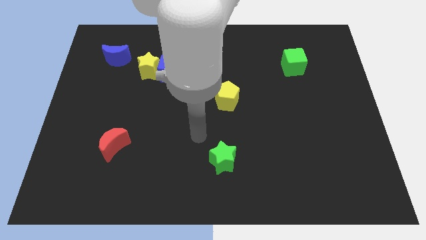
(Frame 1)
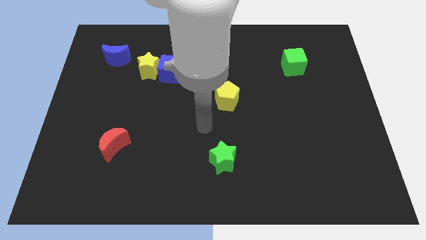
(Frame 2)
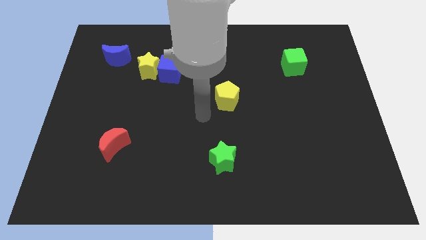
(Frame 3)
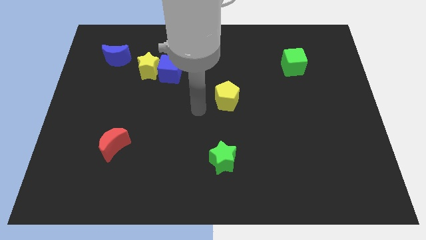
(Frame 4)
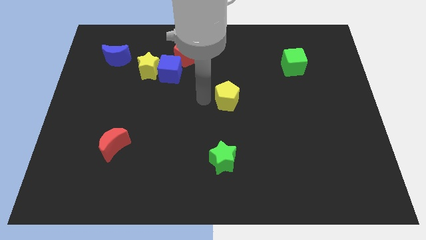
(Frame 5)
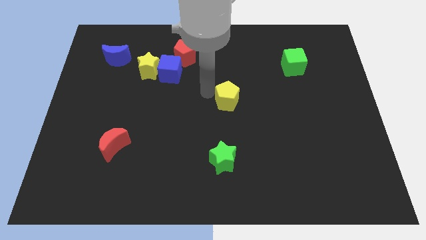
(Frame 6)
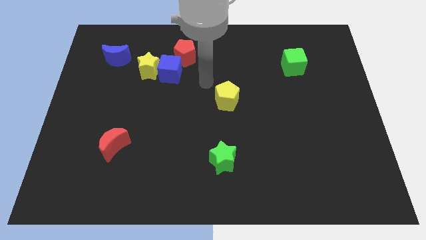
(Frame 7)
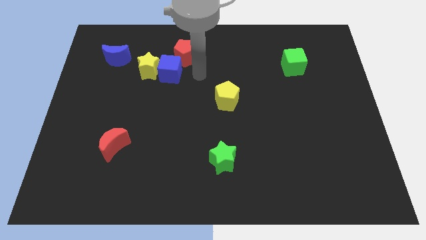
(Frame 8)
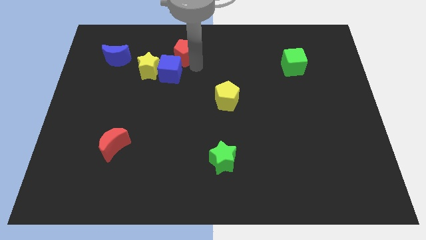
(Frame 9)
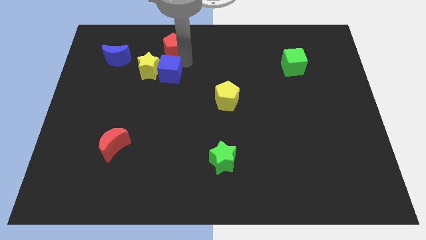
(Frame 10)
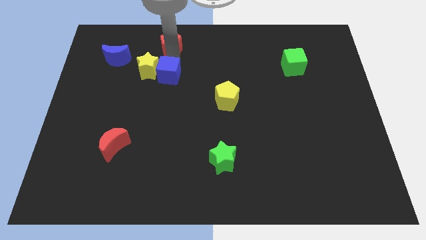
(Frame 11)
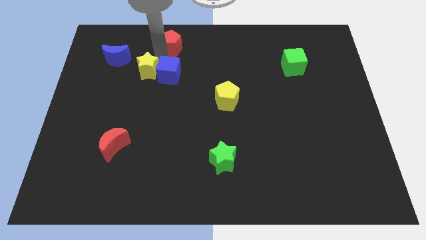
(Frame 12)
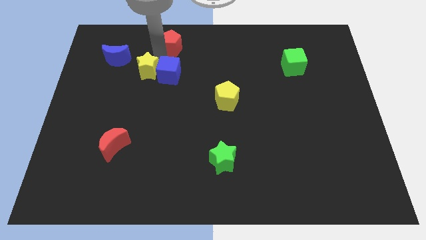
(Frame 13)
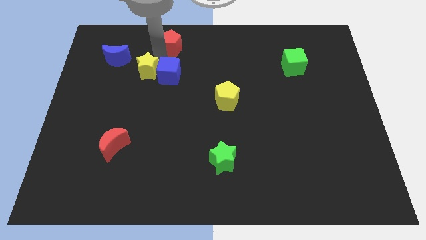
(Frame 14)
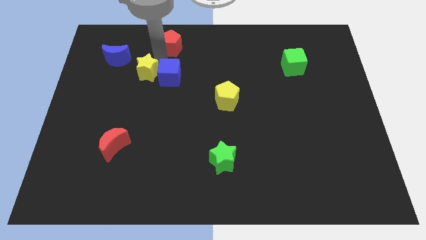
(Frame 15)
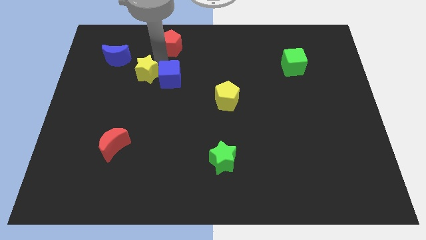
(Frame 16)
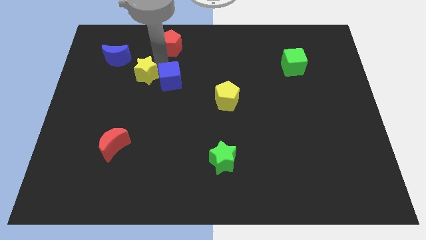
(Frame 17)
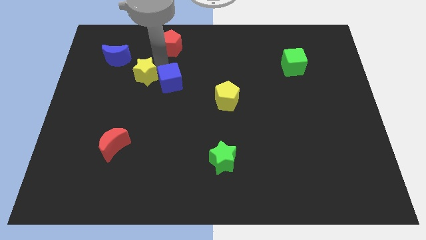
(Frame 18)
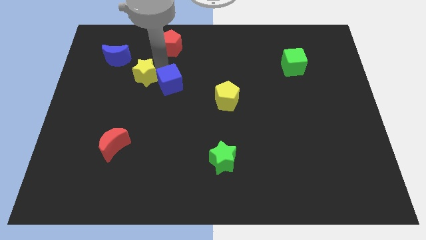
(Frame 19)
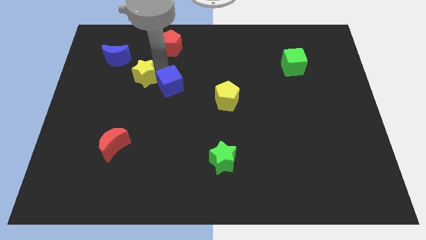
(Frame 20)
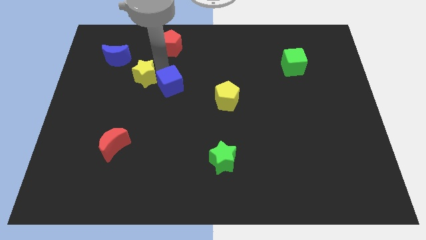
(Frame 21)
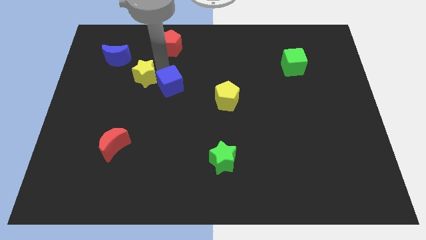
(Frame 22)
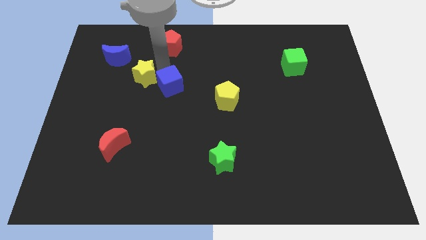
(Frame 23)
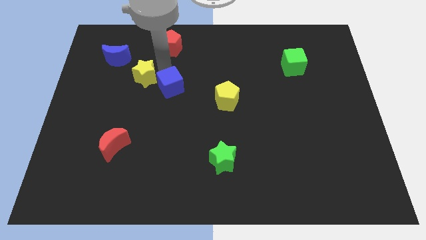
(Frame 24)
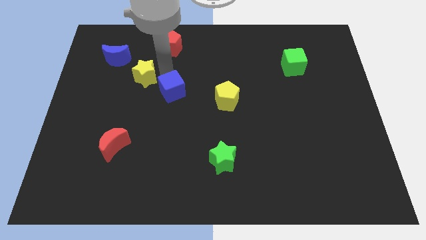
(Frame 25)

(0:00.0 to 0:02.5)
pull the blue cube apart from the yellow star and red pentagon

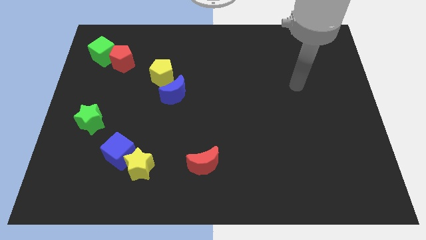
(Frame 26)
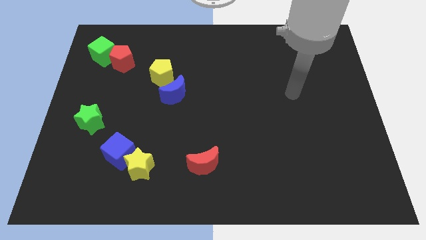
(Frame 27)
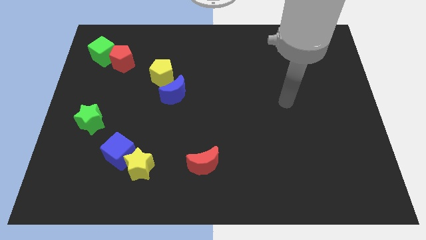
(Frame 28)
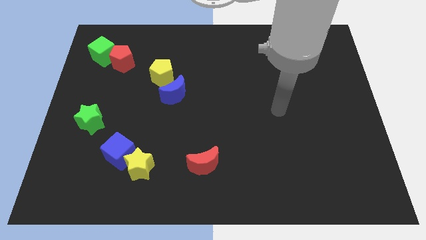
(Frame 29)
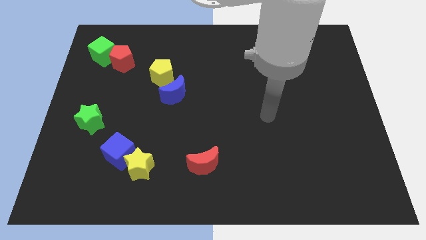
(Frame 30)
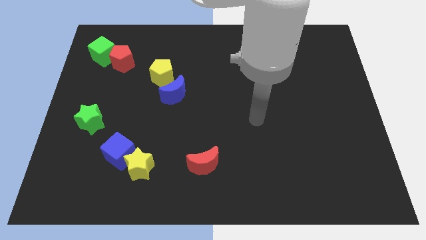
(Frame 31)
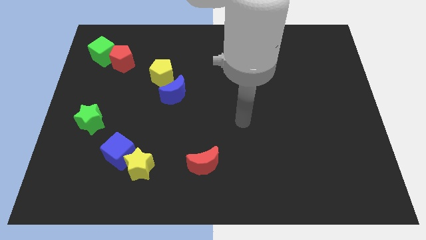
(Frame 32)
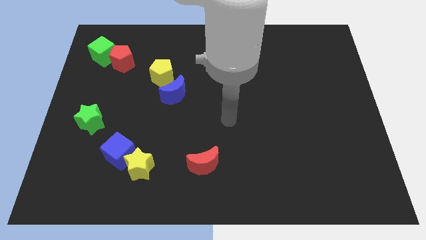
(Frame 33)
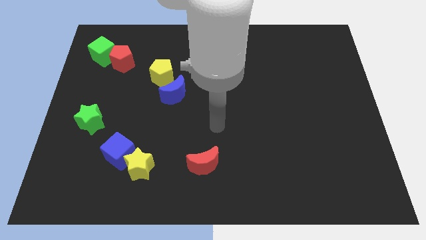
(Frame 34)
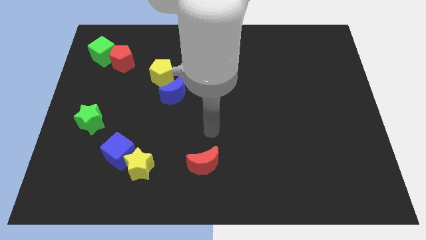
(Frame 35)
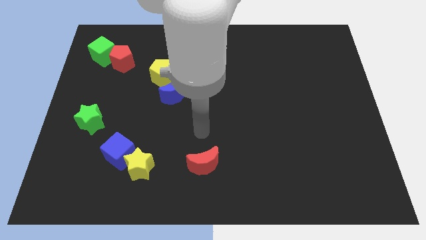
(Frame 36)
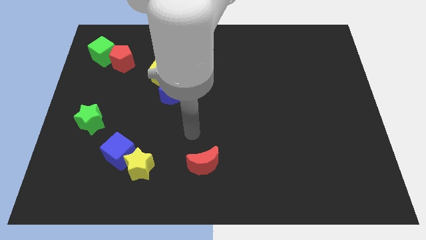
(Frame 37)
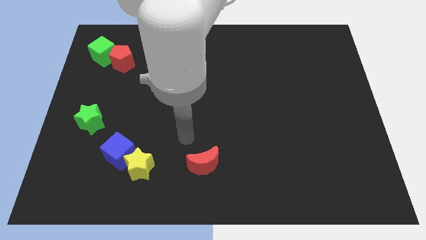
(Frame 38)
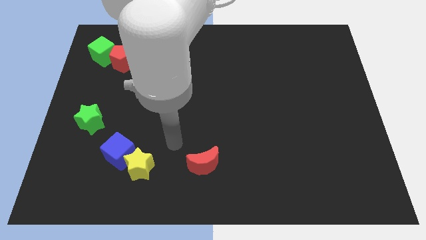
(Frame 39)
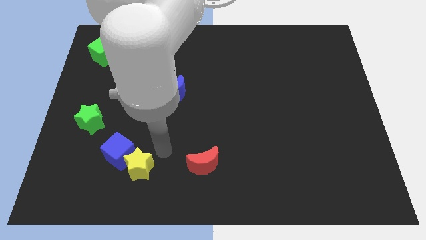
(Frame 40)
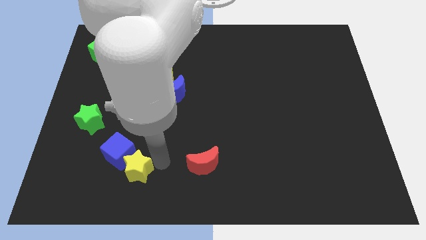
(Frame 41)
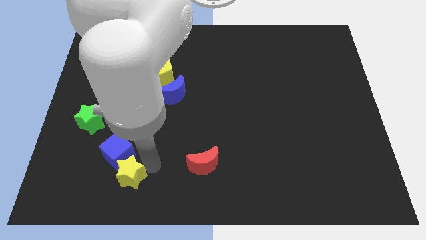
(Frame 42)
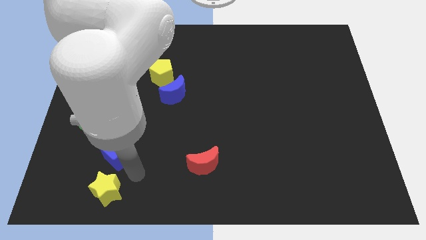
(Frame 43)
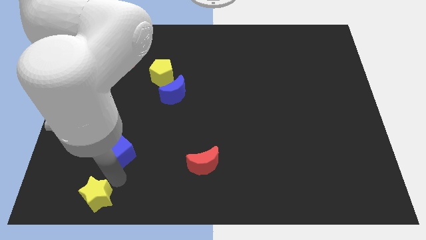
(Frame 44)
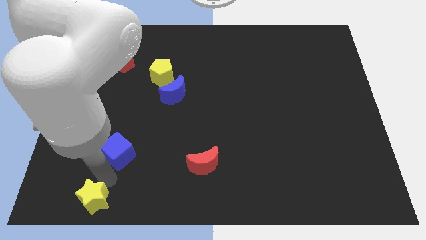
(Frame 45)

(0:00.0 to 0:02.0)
move the blue cube away from the yellow star

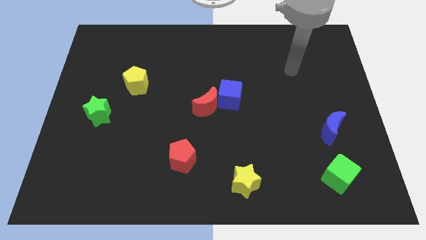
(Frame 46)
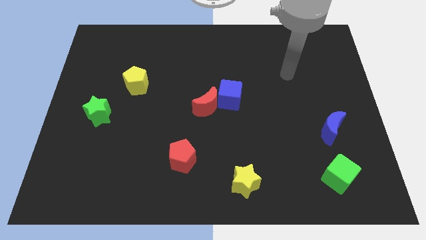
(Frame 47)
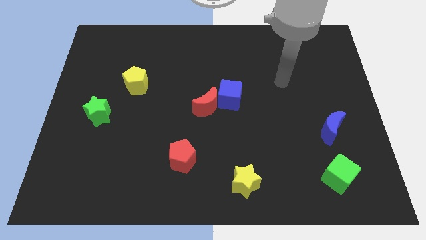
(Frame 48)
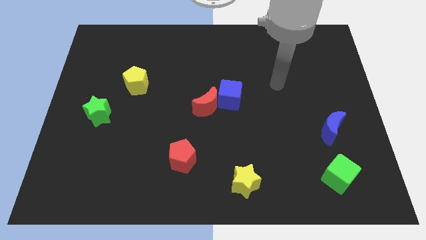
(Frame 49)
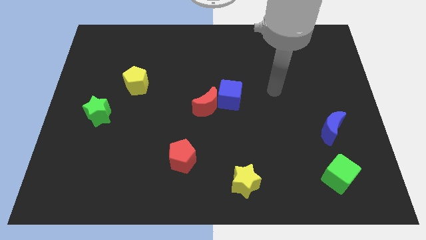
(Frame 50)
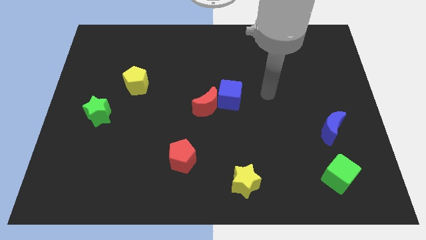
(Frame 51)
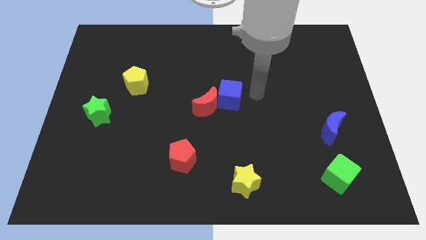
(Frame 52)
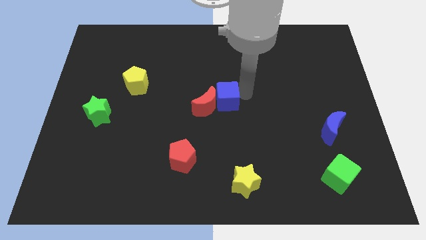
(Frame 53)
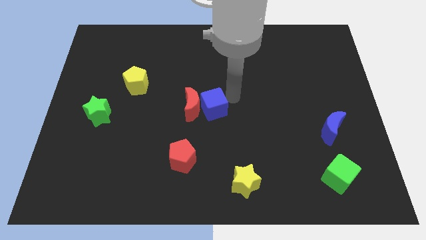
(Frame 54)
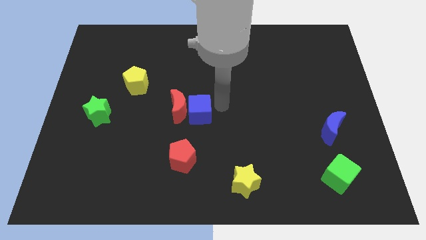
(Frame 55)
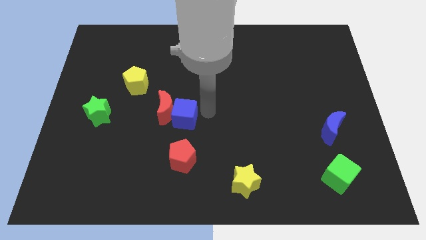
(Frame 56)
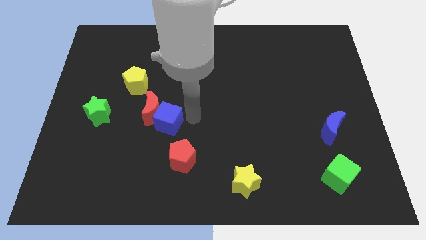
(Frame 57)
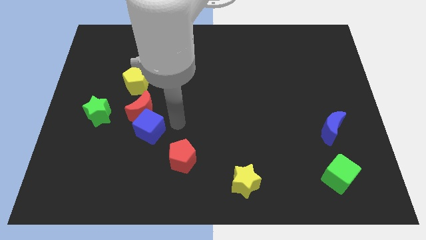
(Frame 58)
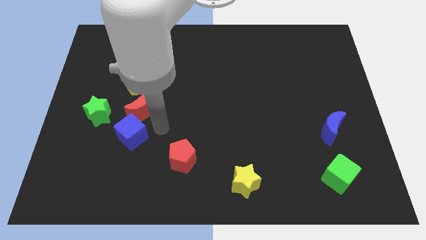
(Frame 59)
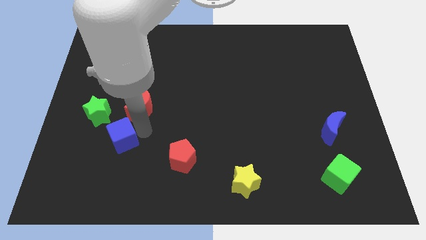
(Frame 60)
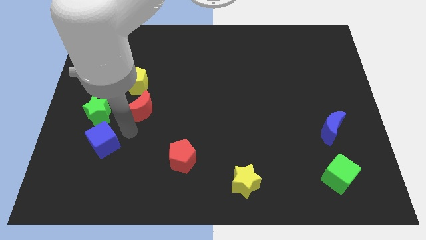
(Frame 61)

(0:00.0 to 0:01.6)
pull the red moon apart from the blue cube

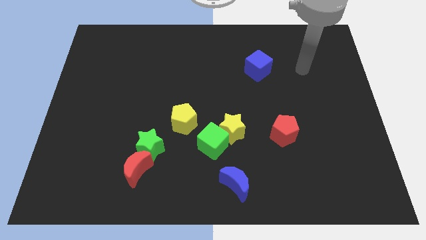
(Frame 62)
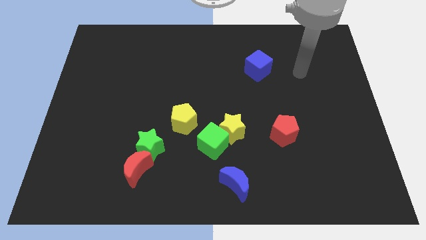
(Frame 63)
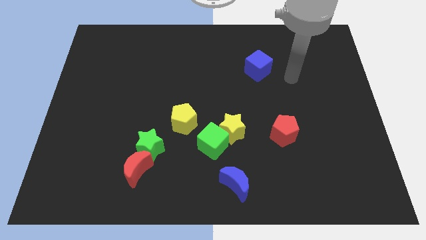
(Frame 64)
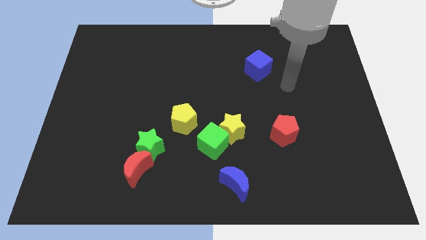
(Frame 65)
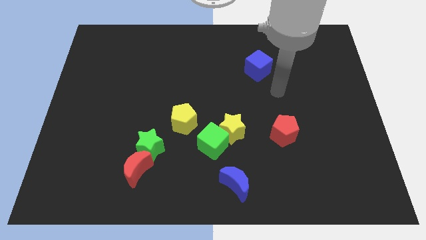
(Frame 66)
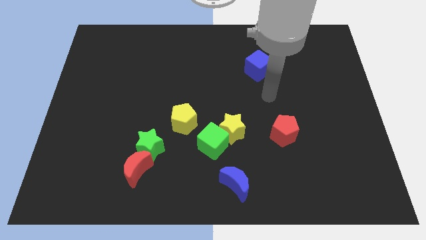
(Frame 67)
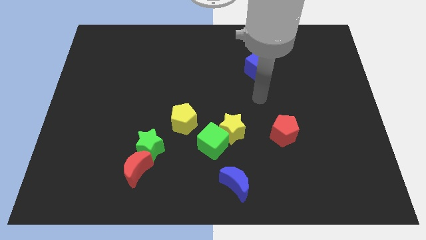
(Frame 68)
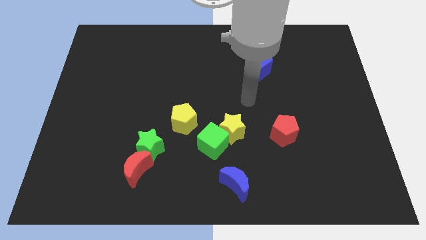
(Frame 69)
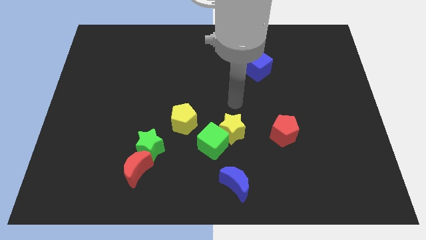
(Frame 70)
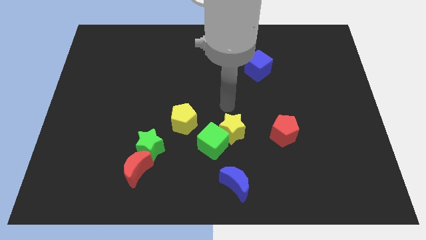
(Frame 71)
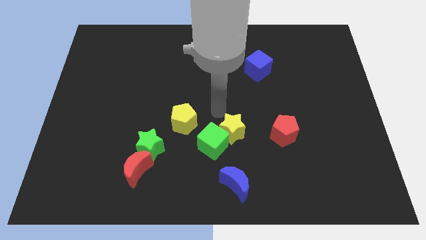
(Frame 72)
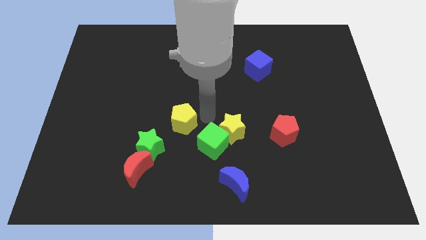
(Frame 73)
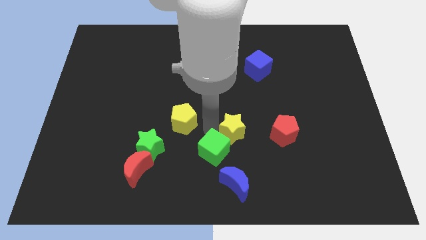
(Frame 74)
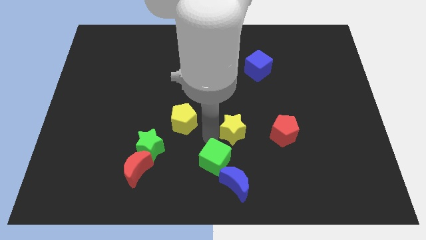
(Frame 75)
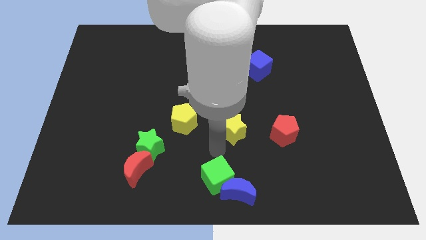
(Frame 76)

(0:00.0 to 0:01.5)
move the yellow star away from the green cube

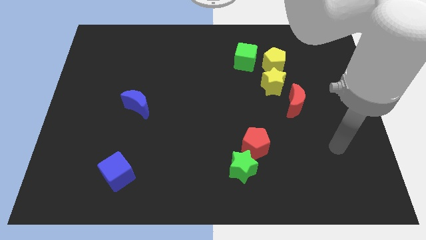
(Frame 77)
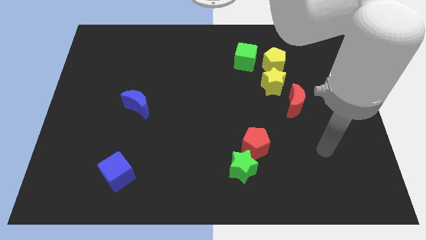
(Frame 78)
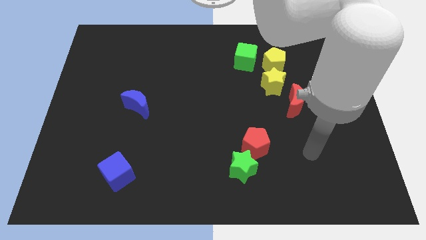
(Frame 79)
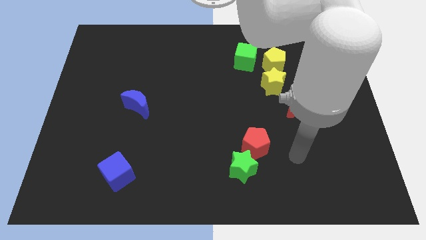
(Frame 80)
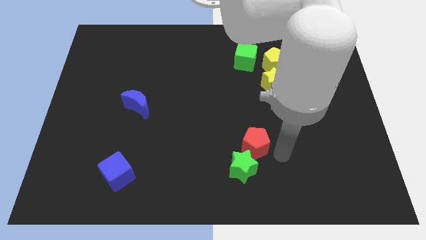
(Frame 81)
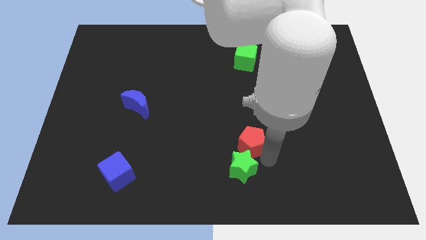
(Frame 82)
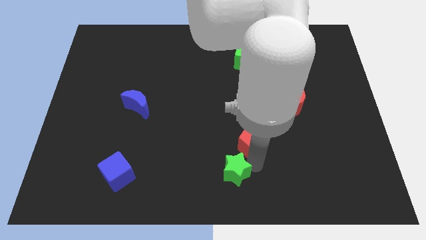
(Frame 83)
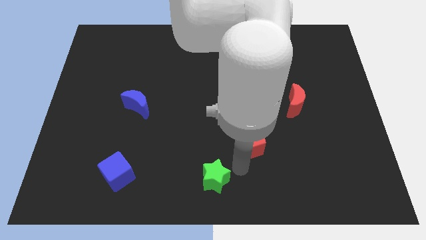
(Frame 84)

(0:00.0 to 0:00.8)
separate the red pentagon from the green star

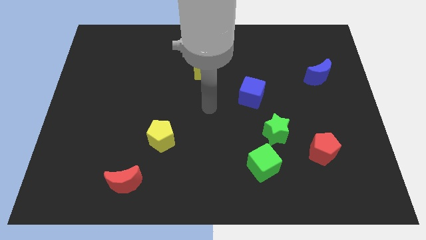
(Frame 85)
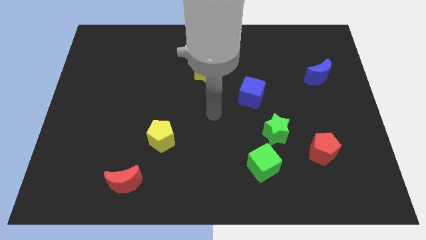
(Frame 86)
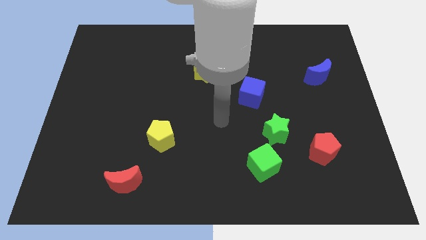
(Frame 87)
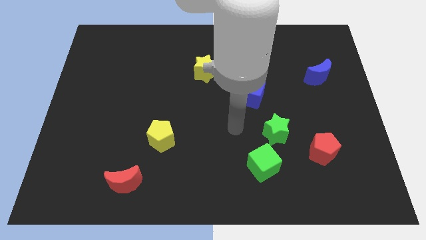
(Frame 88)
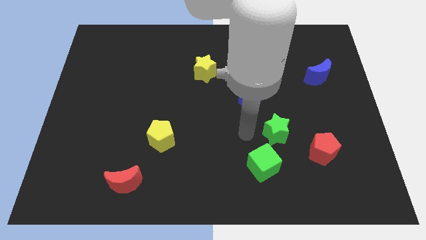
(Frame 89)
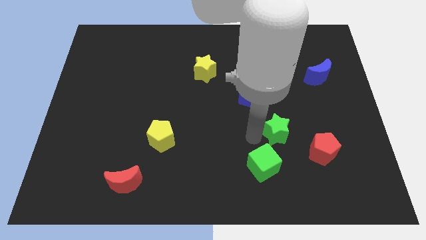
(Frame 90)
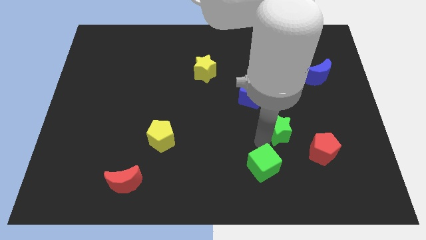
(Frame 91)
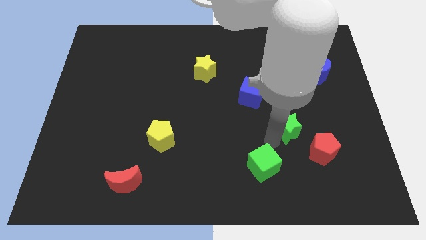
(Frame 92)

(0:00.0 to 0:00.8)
separate the green cube from the green star
